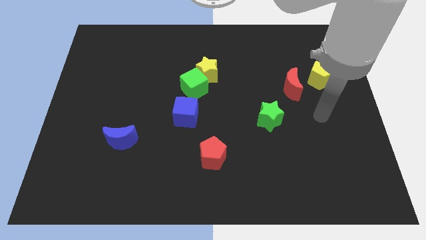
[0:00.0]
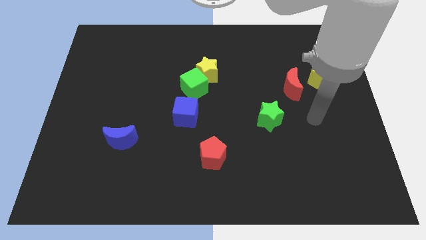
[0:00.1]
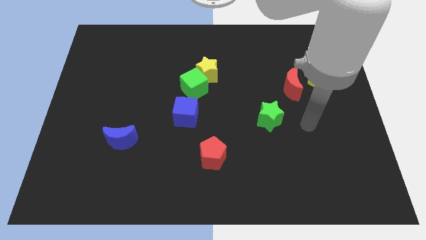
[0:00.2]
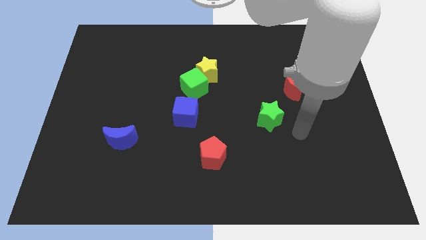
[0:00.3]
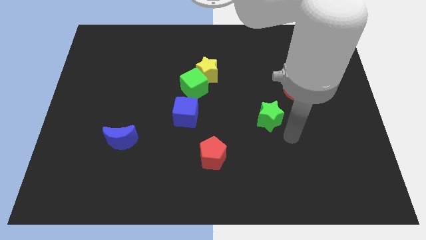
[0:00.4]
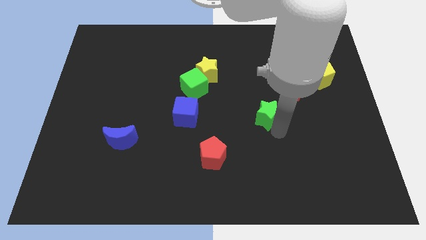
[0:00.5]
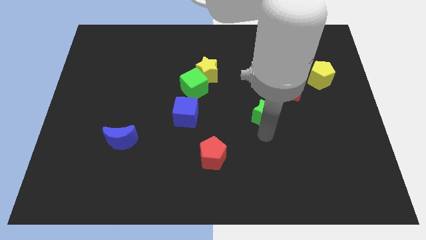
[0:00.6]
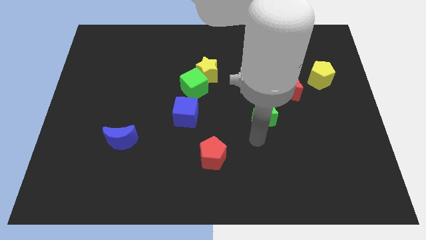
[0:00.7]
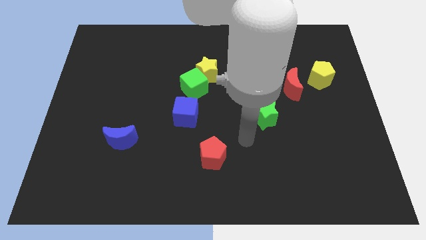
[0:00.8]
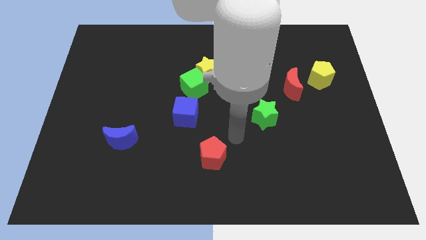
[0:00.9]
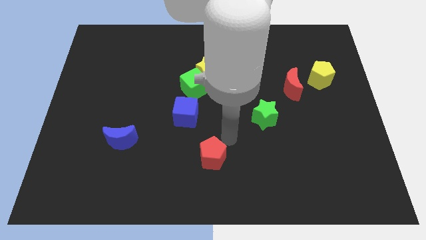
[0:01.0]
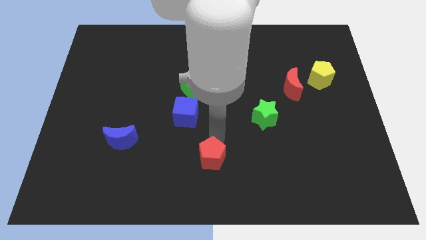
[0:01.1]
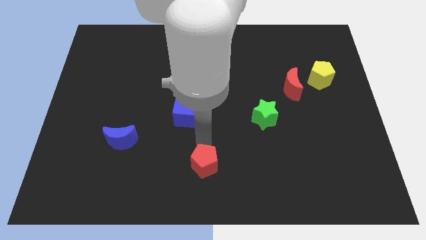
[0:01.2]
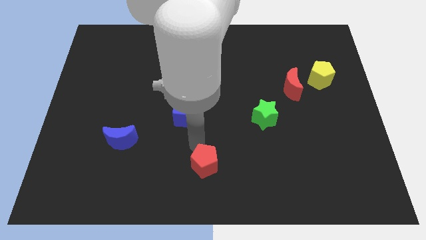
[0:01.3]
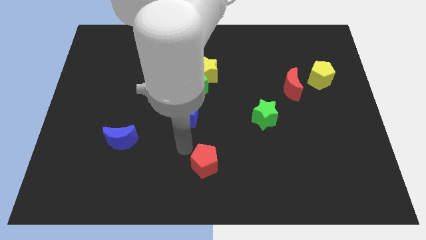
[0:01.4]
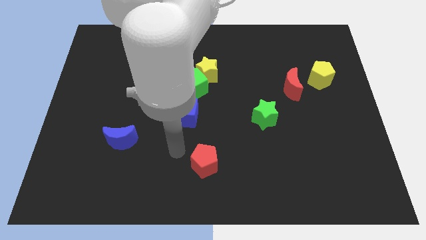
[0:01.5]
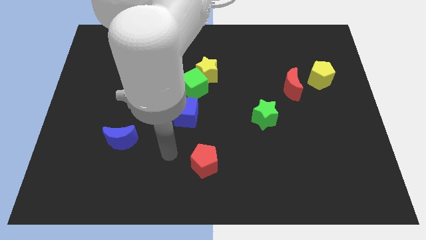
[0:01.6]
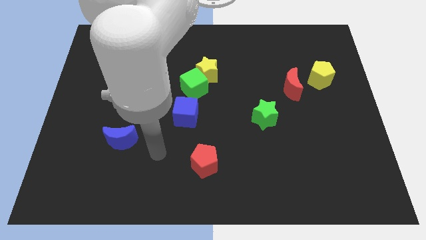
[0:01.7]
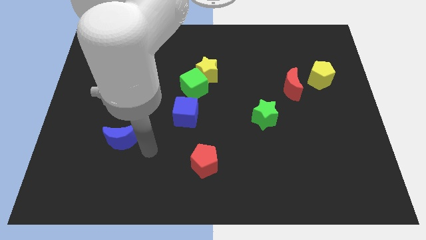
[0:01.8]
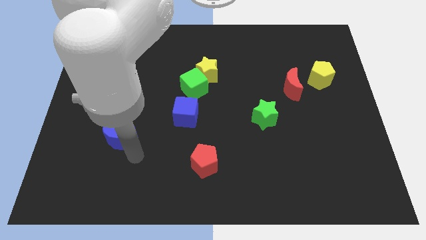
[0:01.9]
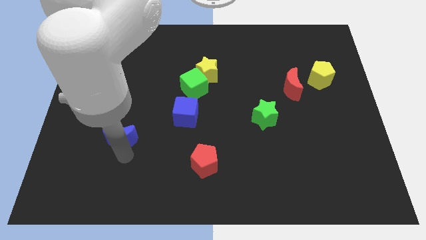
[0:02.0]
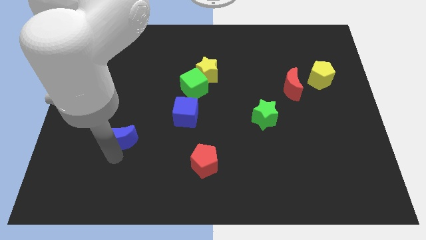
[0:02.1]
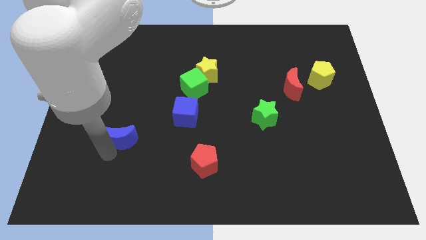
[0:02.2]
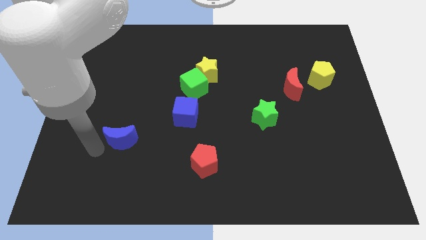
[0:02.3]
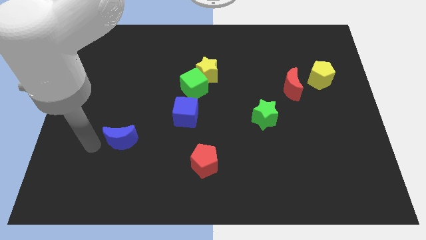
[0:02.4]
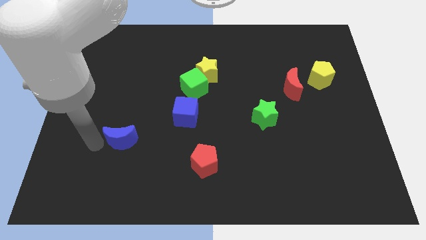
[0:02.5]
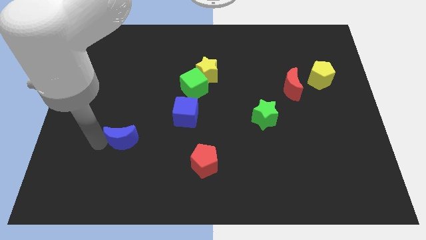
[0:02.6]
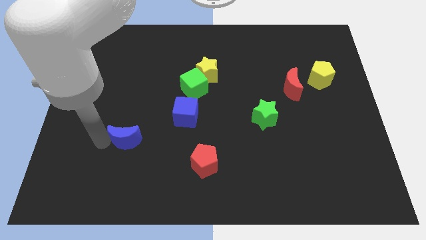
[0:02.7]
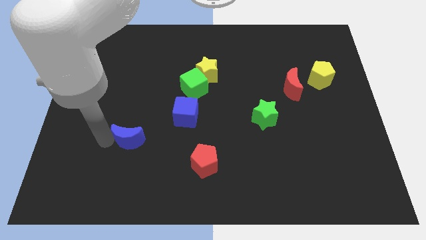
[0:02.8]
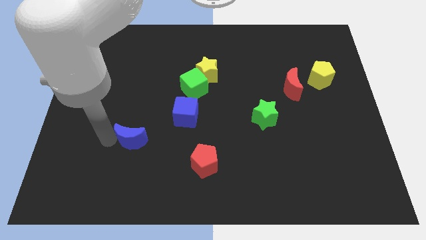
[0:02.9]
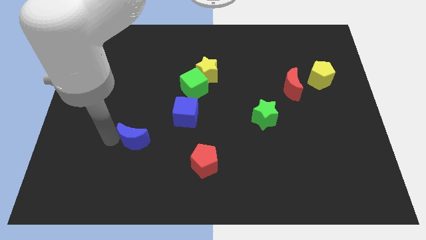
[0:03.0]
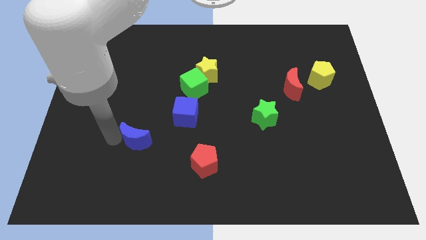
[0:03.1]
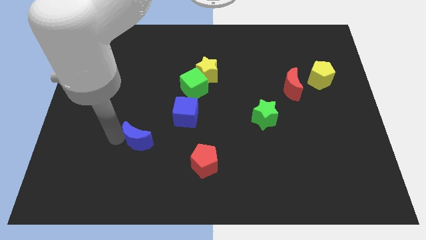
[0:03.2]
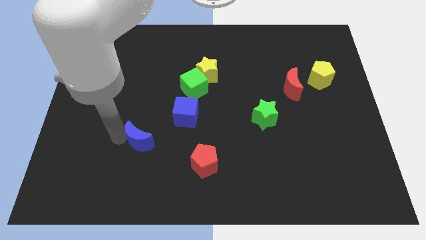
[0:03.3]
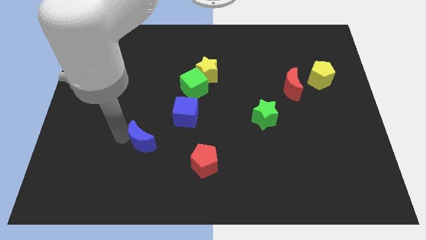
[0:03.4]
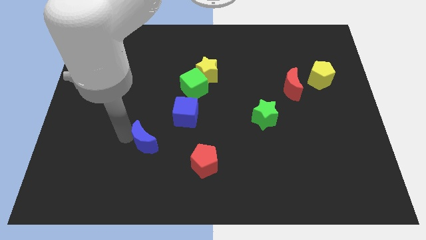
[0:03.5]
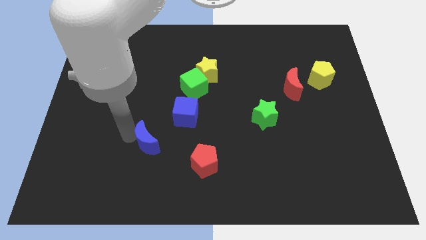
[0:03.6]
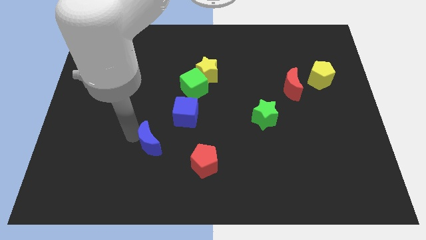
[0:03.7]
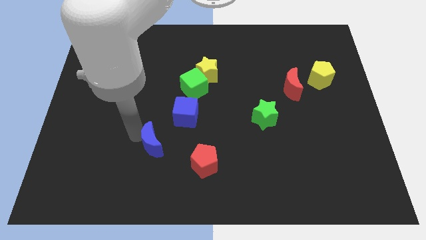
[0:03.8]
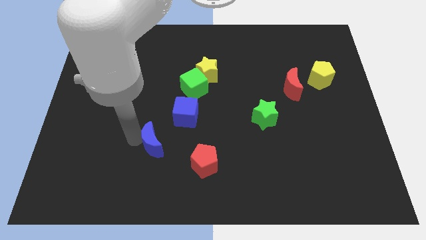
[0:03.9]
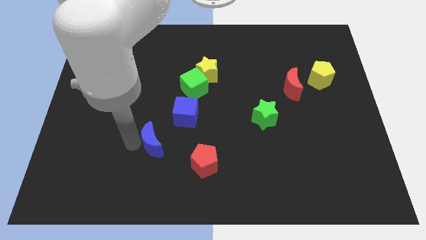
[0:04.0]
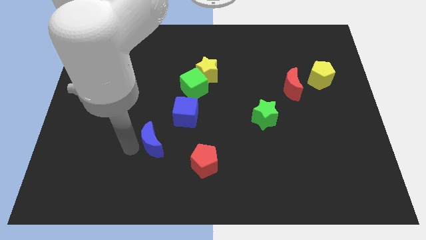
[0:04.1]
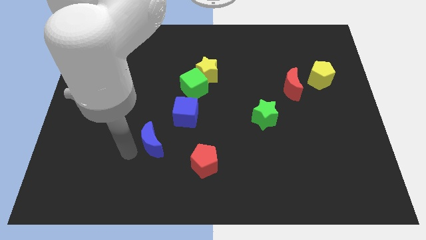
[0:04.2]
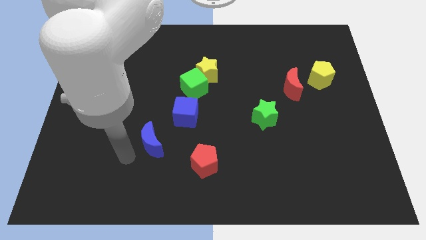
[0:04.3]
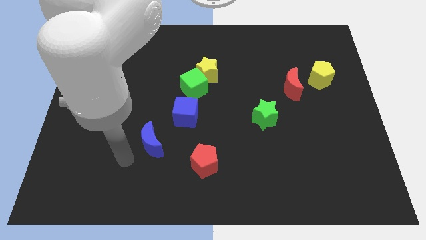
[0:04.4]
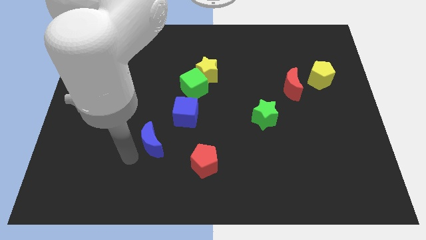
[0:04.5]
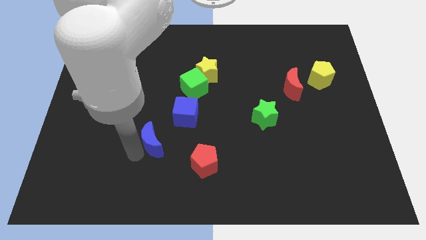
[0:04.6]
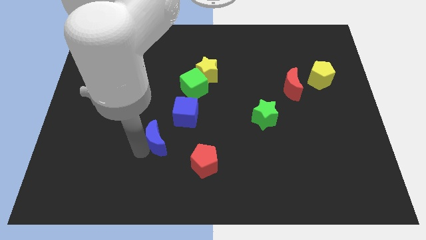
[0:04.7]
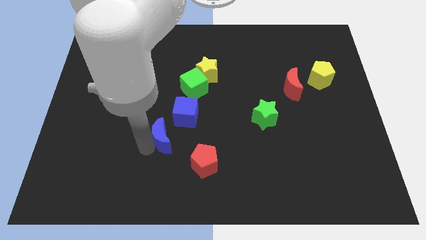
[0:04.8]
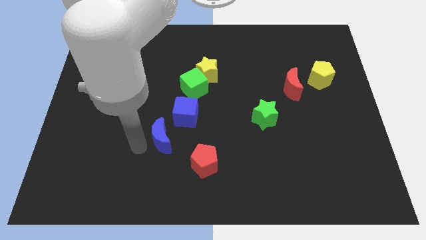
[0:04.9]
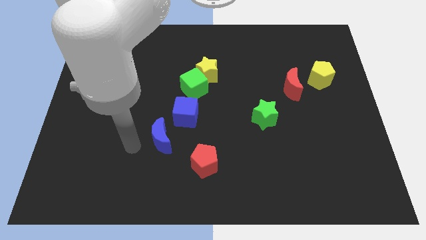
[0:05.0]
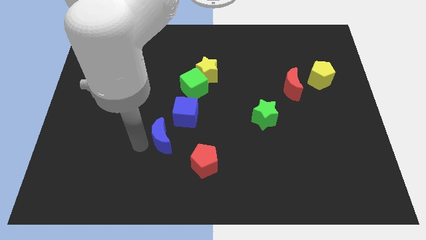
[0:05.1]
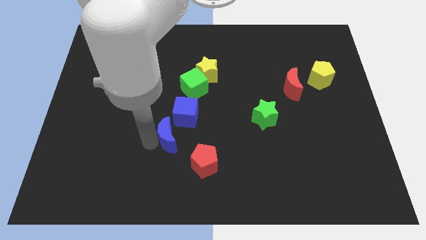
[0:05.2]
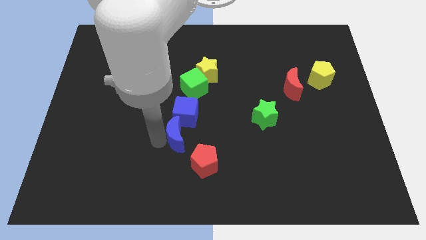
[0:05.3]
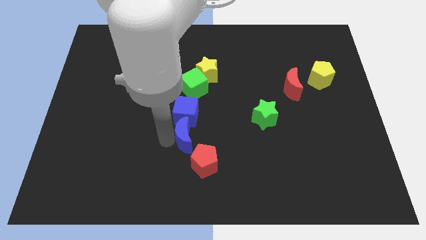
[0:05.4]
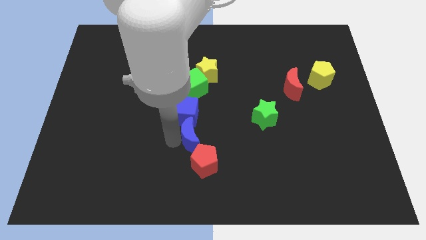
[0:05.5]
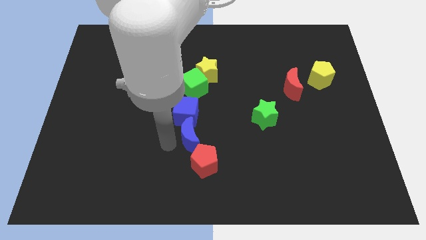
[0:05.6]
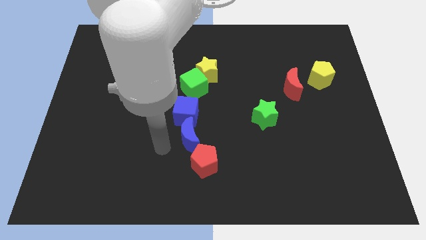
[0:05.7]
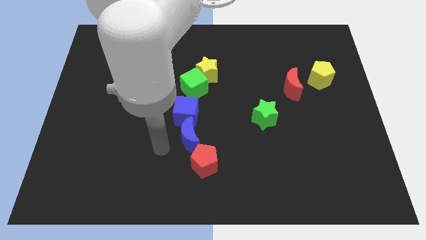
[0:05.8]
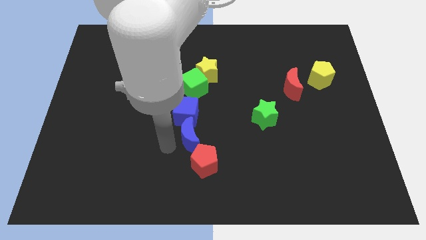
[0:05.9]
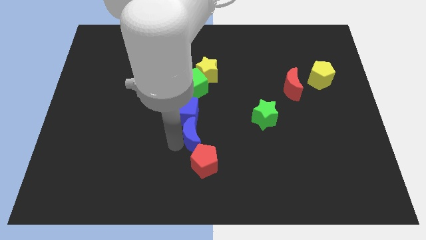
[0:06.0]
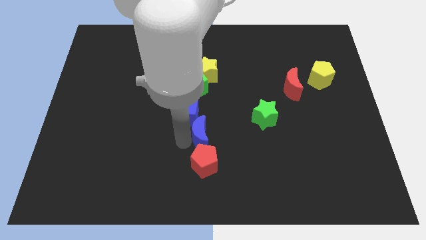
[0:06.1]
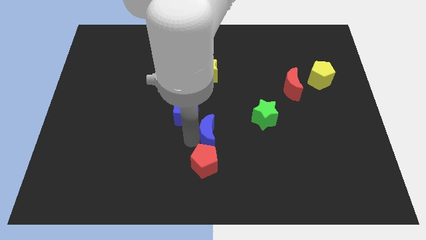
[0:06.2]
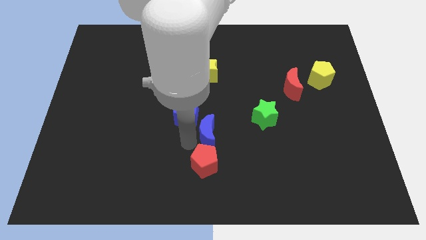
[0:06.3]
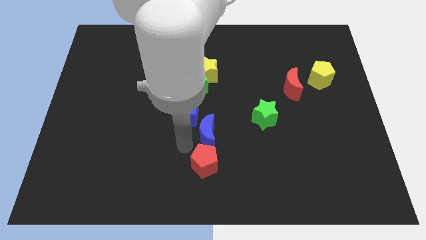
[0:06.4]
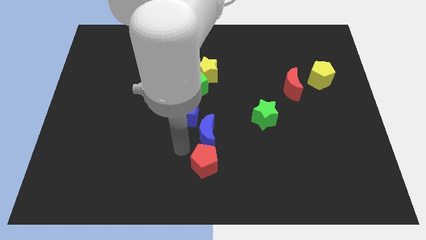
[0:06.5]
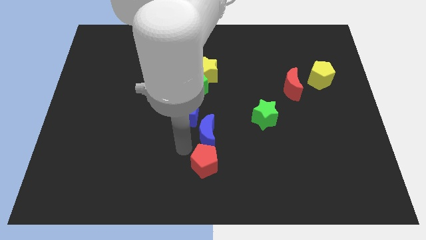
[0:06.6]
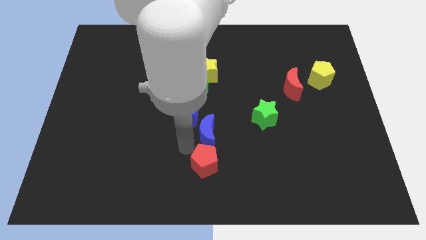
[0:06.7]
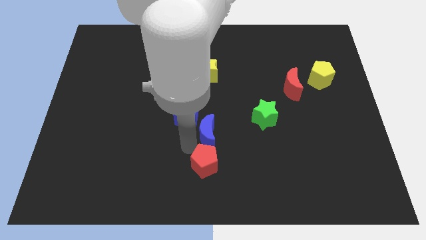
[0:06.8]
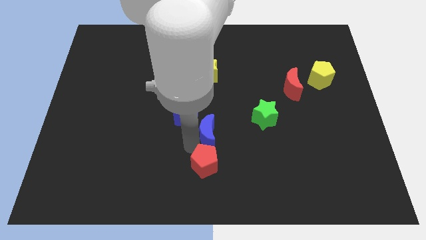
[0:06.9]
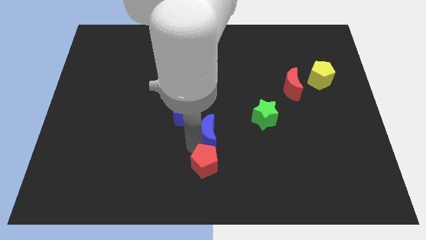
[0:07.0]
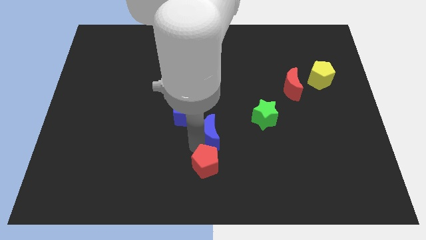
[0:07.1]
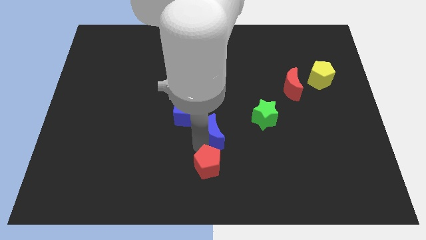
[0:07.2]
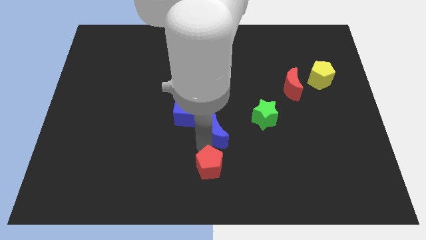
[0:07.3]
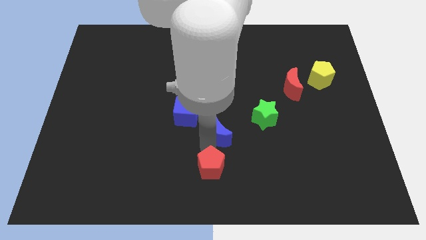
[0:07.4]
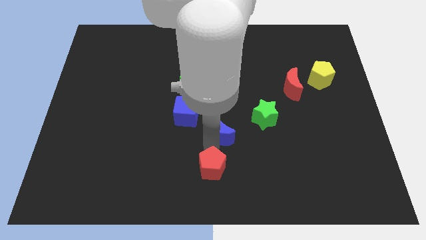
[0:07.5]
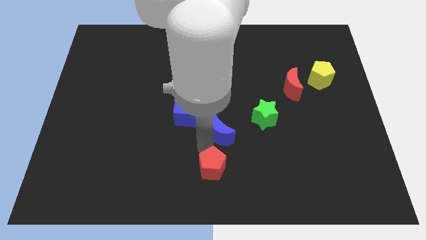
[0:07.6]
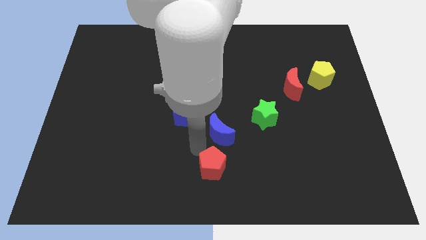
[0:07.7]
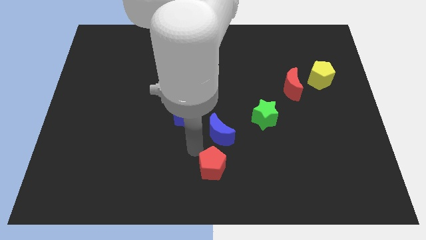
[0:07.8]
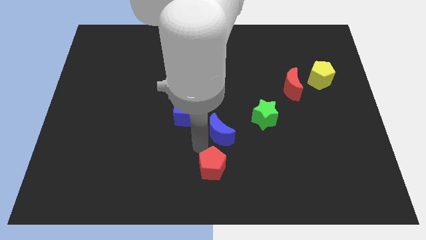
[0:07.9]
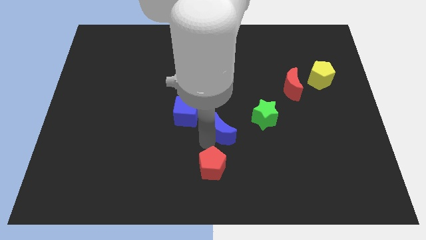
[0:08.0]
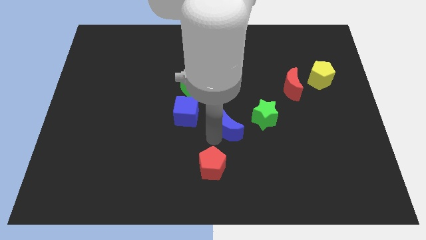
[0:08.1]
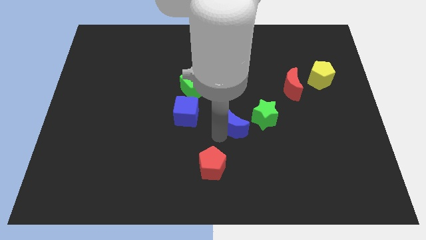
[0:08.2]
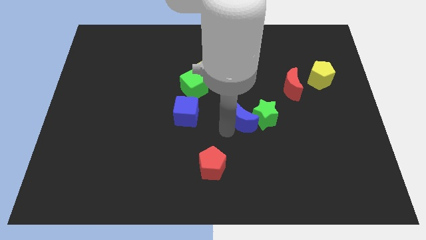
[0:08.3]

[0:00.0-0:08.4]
slide the blue moon next to the green star
